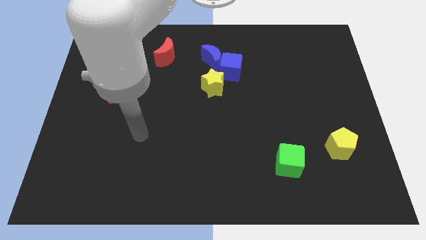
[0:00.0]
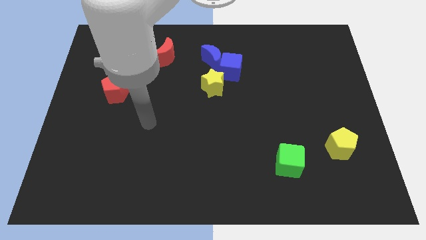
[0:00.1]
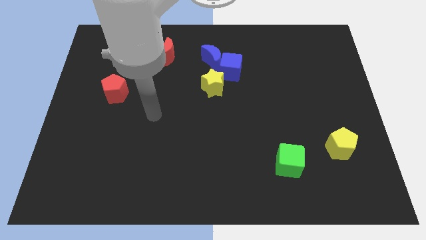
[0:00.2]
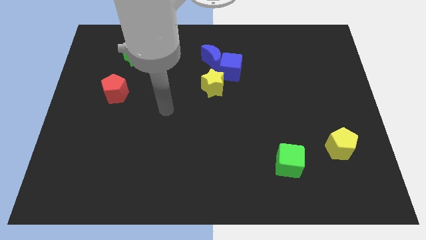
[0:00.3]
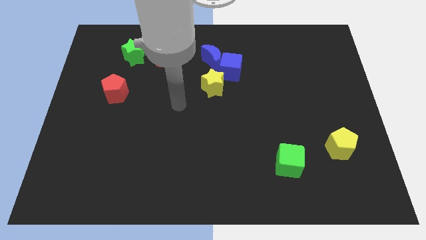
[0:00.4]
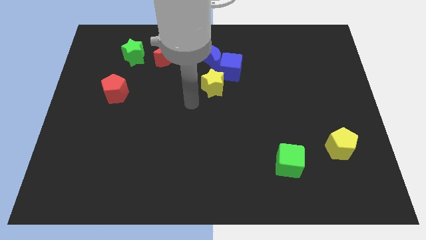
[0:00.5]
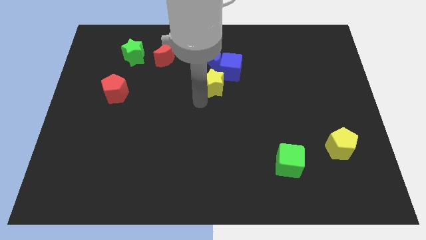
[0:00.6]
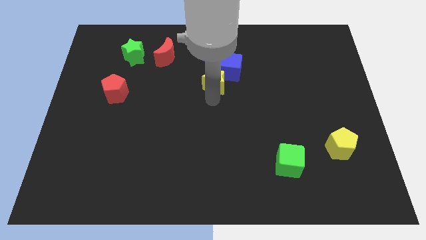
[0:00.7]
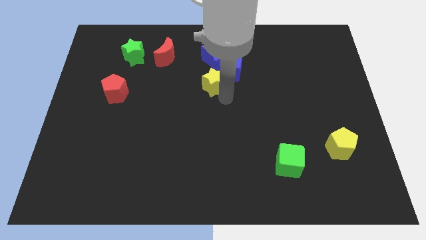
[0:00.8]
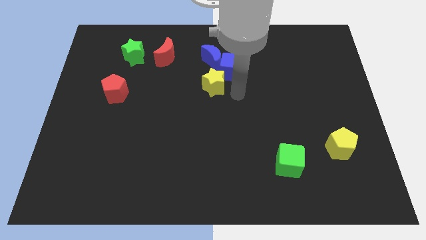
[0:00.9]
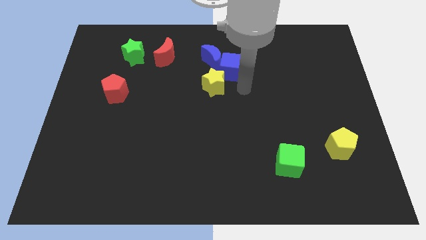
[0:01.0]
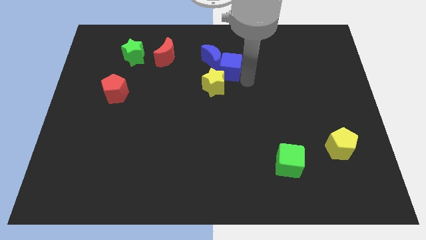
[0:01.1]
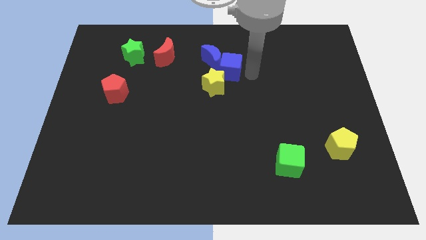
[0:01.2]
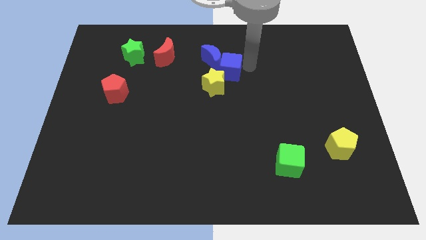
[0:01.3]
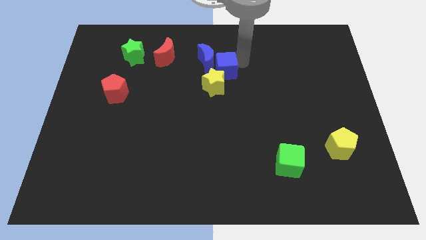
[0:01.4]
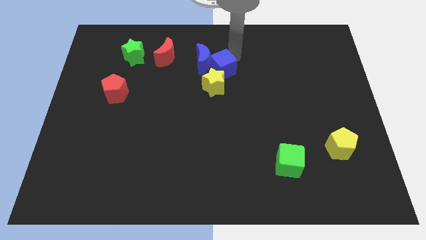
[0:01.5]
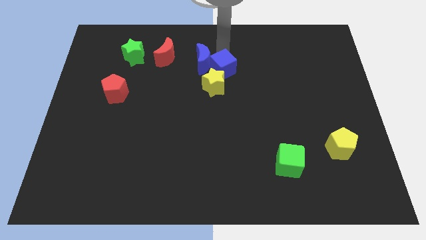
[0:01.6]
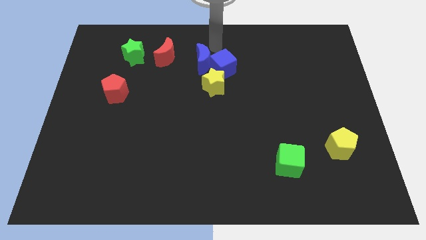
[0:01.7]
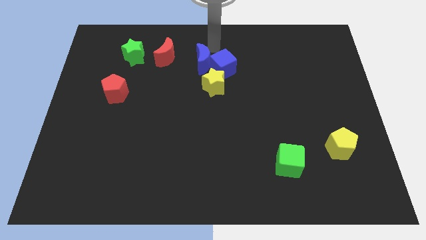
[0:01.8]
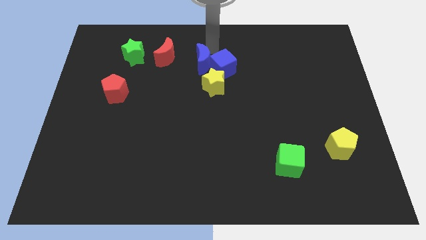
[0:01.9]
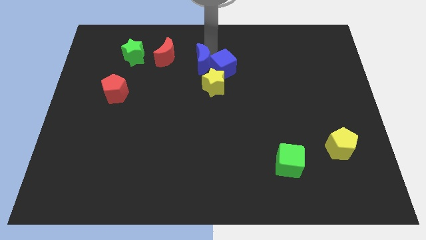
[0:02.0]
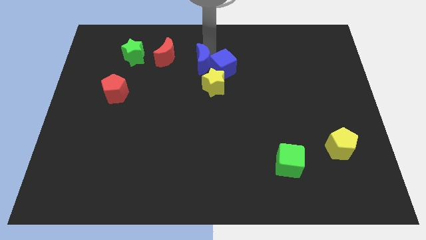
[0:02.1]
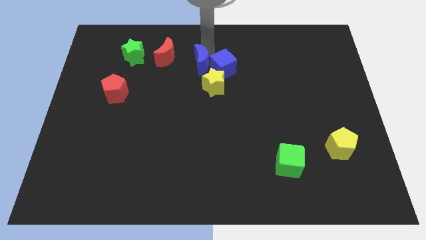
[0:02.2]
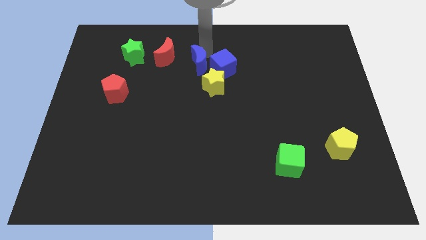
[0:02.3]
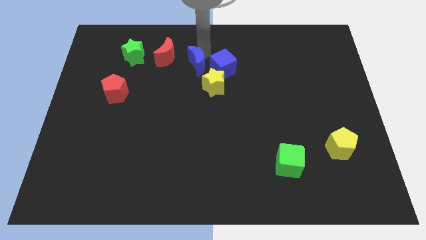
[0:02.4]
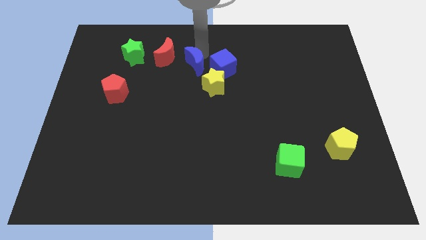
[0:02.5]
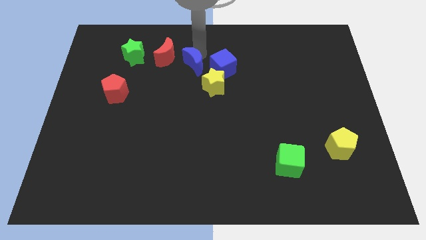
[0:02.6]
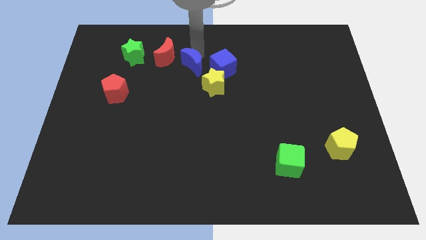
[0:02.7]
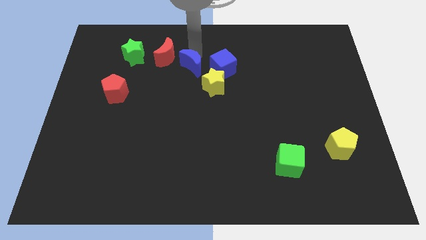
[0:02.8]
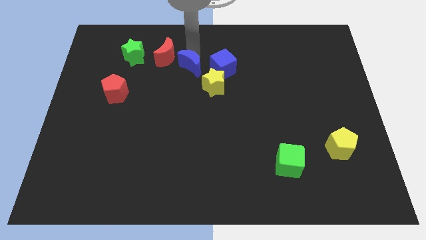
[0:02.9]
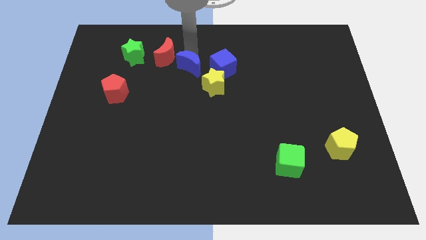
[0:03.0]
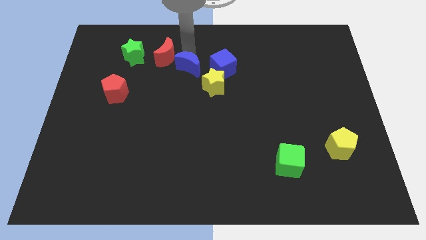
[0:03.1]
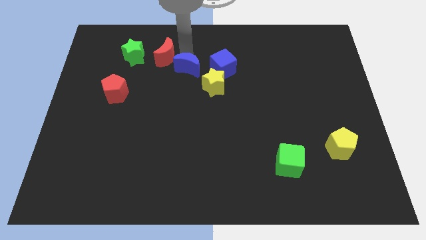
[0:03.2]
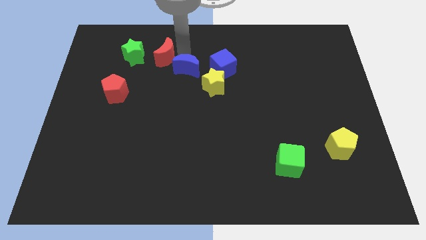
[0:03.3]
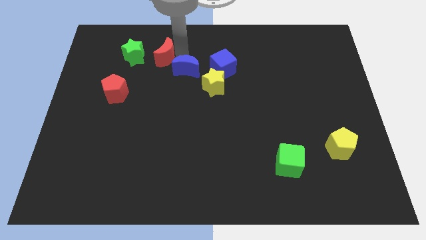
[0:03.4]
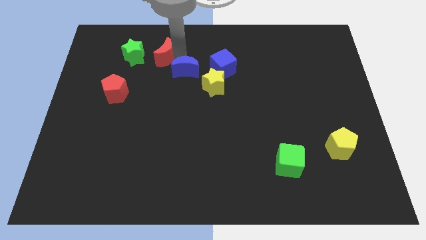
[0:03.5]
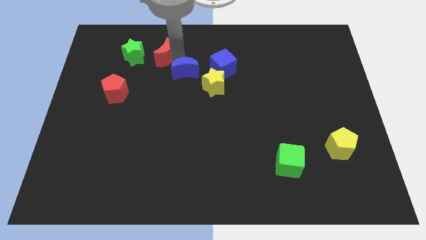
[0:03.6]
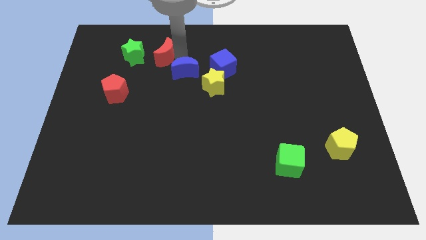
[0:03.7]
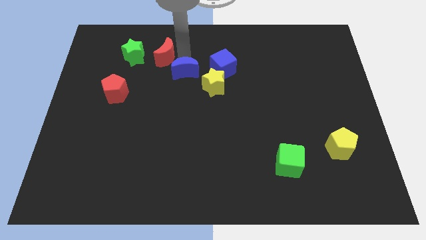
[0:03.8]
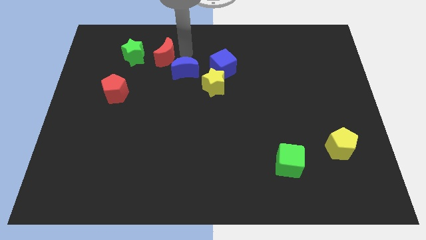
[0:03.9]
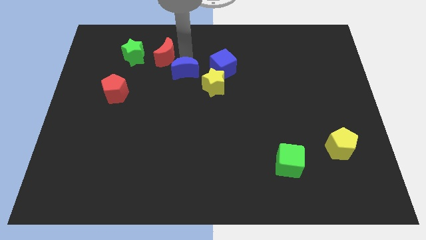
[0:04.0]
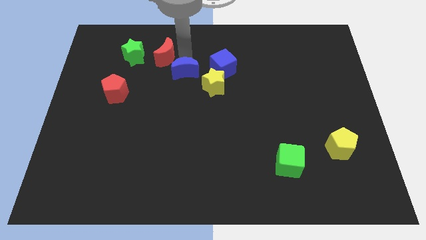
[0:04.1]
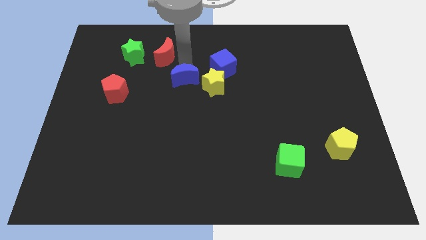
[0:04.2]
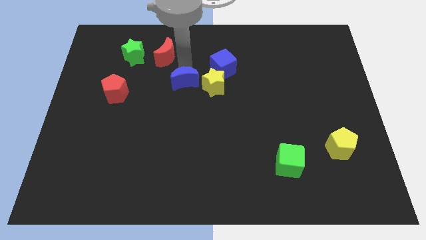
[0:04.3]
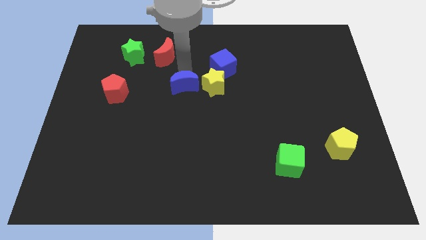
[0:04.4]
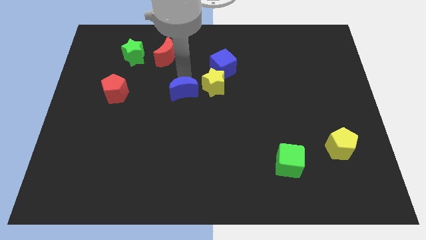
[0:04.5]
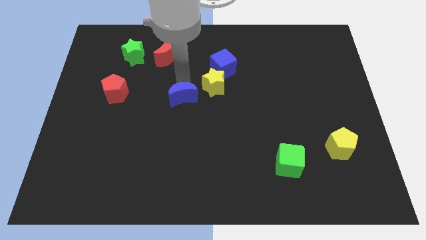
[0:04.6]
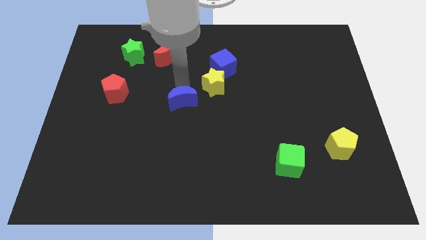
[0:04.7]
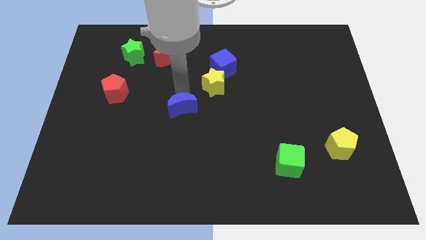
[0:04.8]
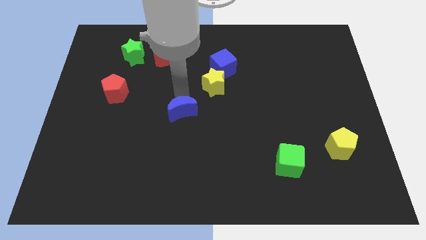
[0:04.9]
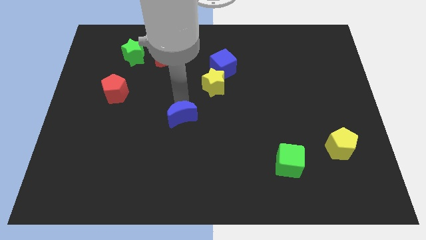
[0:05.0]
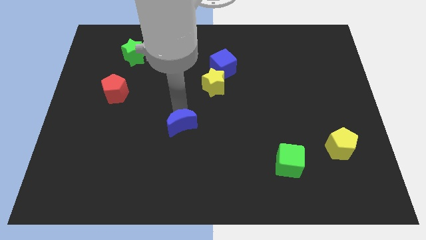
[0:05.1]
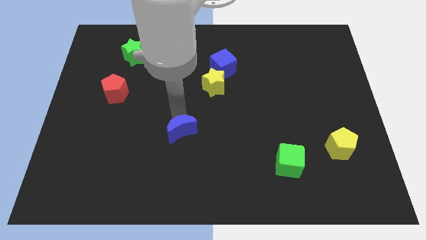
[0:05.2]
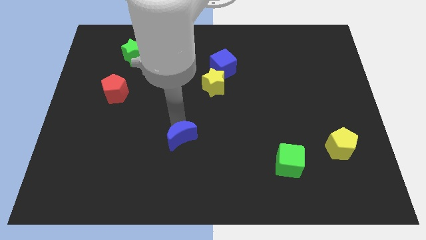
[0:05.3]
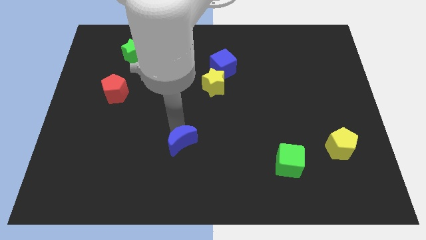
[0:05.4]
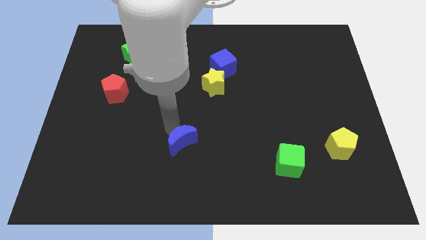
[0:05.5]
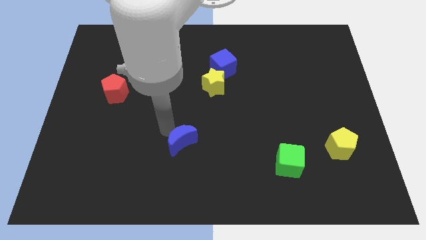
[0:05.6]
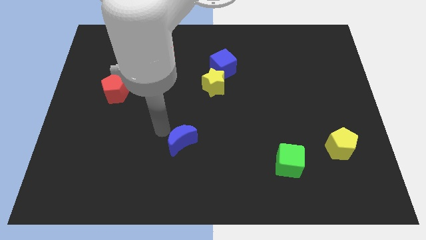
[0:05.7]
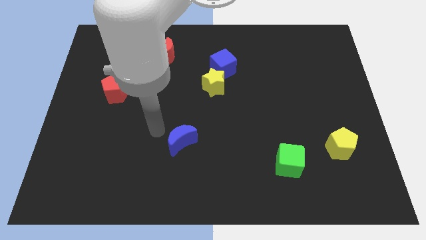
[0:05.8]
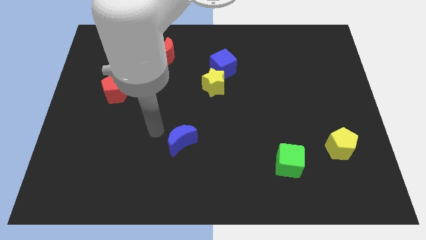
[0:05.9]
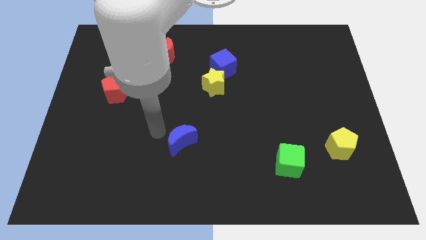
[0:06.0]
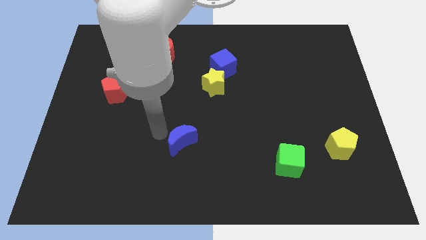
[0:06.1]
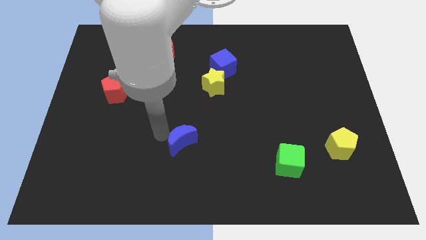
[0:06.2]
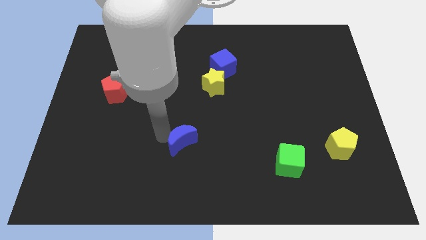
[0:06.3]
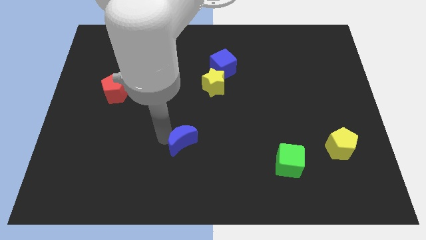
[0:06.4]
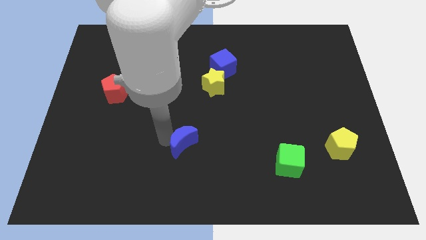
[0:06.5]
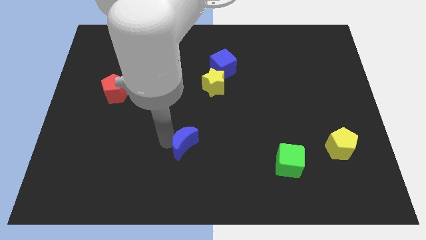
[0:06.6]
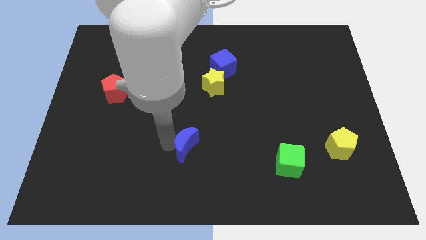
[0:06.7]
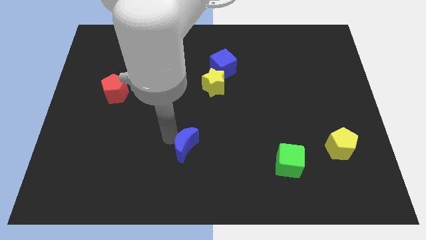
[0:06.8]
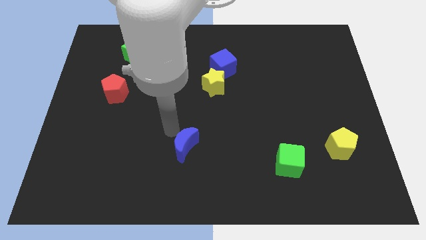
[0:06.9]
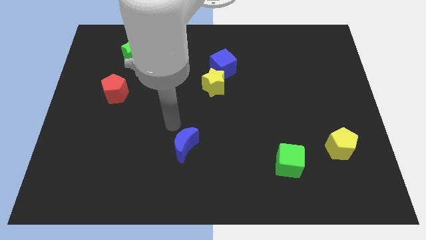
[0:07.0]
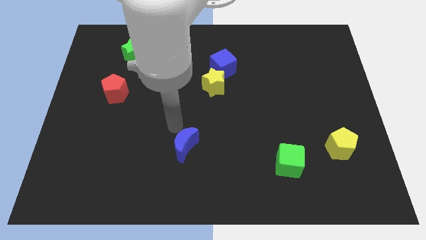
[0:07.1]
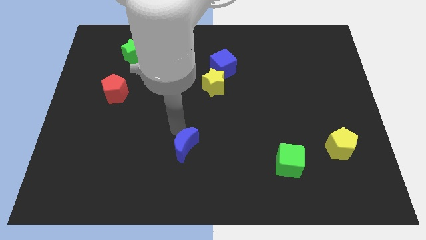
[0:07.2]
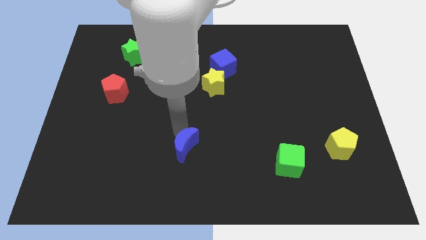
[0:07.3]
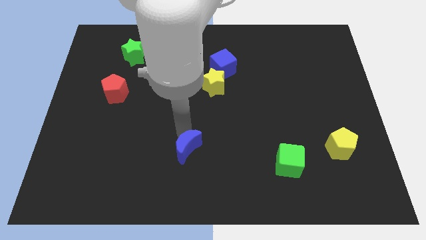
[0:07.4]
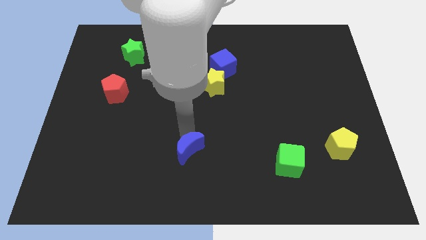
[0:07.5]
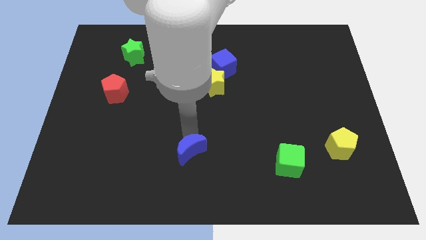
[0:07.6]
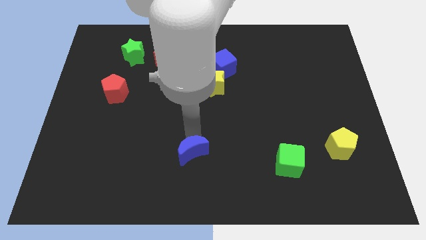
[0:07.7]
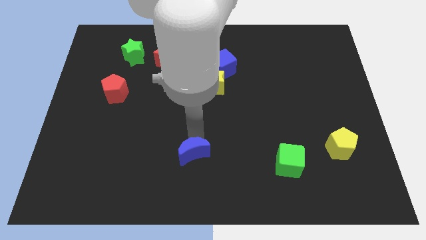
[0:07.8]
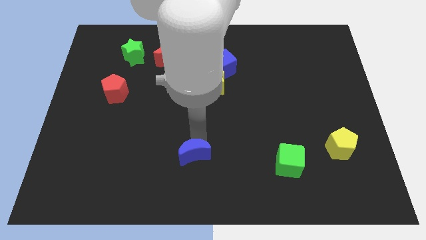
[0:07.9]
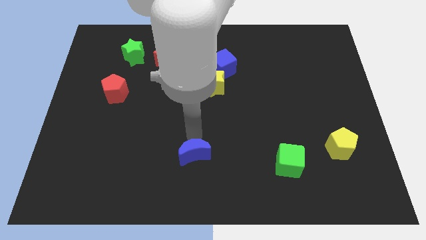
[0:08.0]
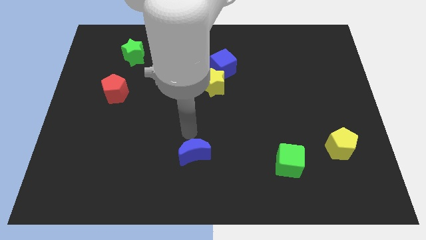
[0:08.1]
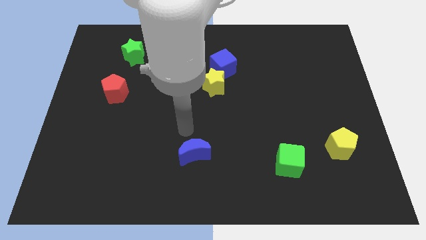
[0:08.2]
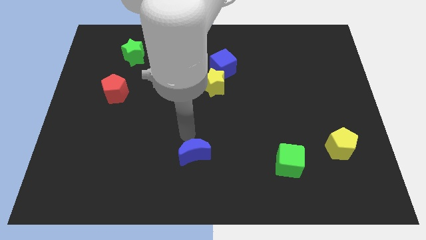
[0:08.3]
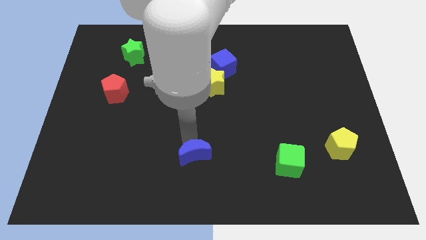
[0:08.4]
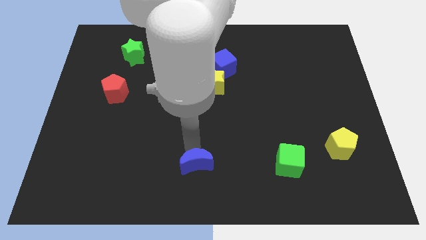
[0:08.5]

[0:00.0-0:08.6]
slide the blue moon to the bottom side
